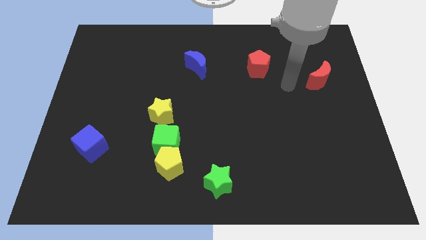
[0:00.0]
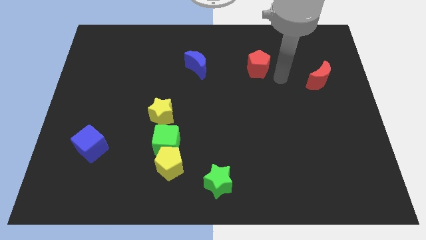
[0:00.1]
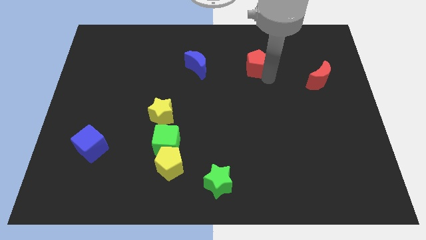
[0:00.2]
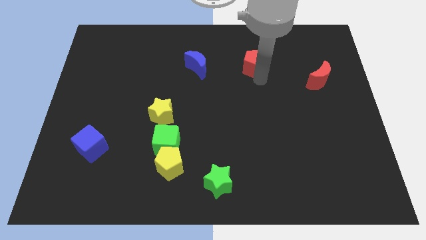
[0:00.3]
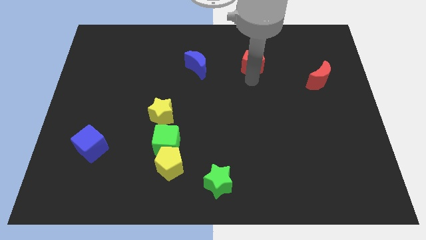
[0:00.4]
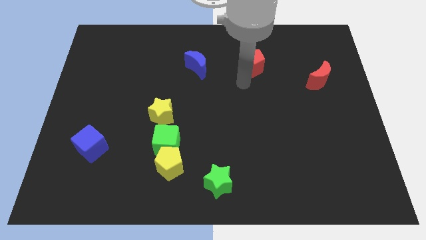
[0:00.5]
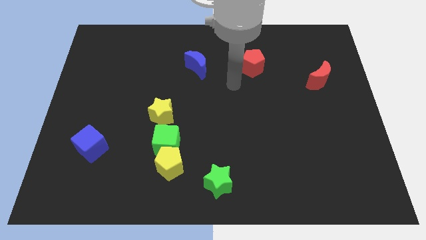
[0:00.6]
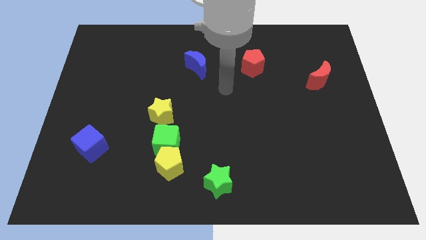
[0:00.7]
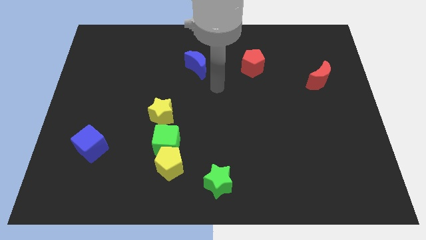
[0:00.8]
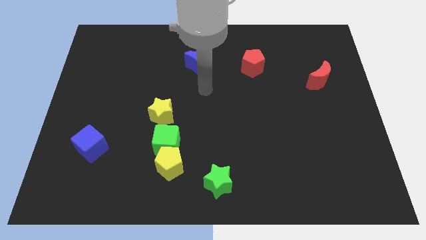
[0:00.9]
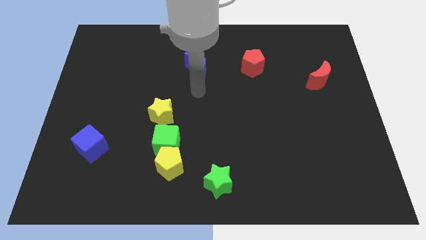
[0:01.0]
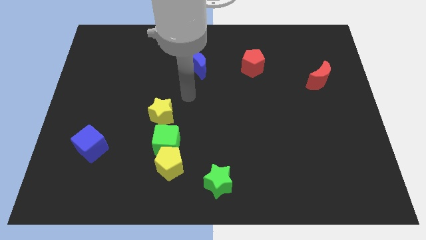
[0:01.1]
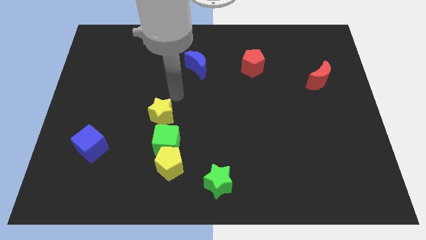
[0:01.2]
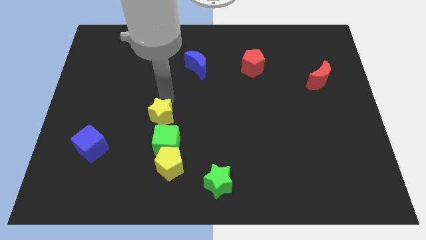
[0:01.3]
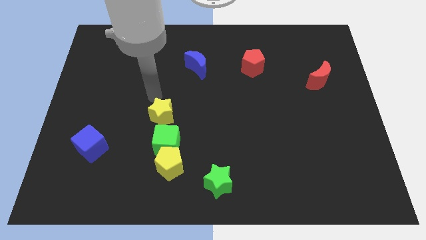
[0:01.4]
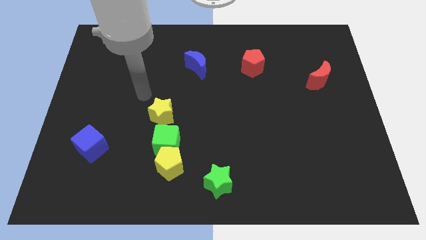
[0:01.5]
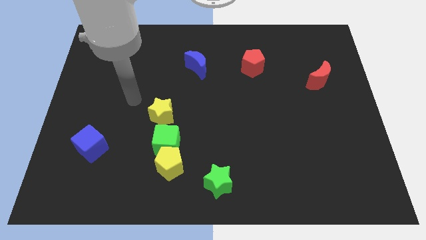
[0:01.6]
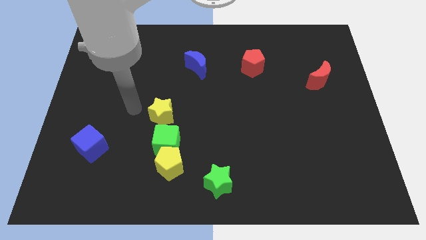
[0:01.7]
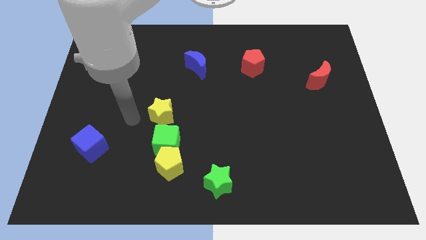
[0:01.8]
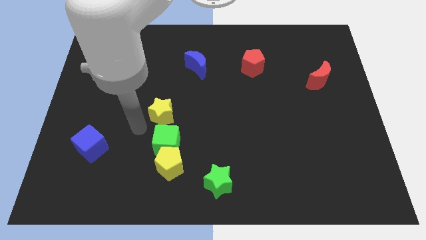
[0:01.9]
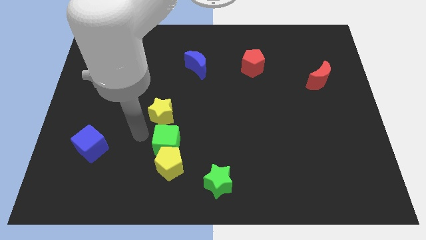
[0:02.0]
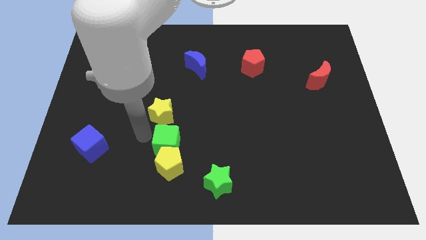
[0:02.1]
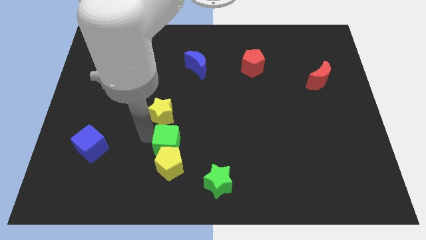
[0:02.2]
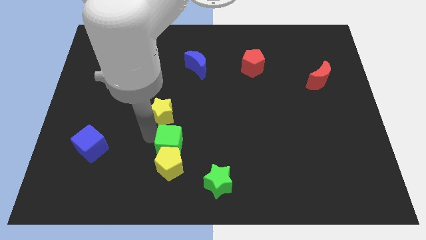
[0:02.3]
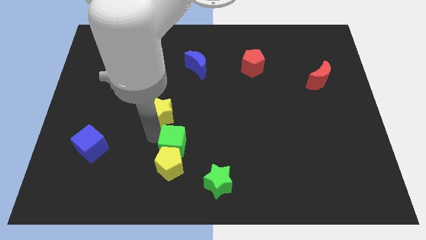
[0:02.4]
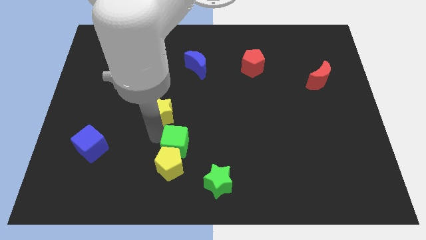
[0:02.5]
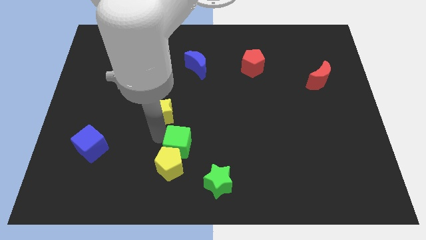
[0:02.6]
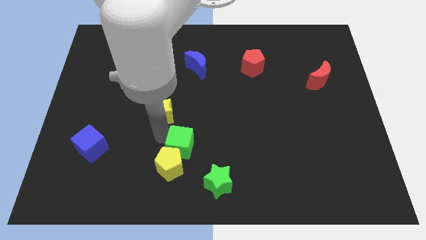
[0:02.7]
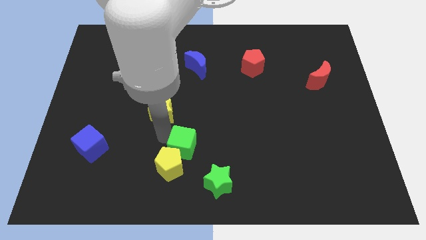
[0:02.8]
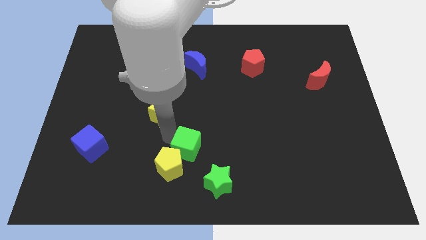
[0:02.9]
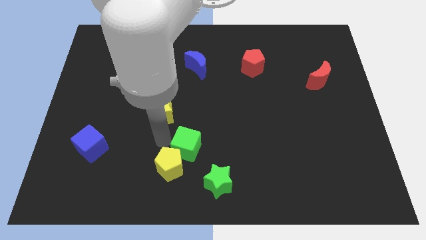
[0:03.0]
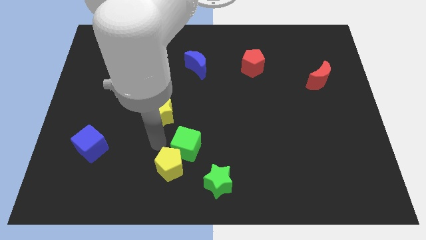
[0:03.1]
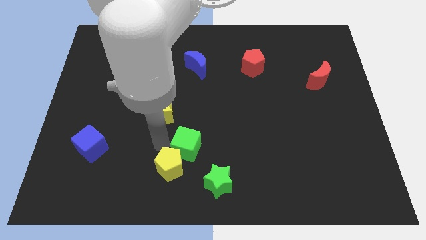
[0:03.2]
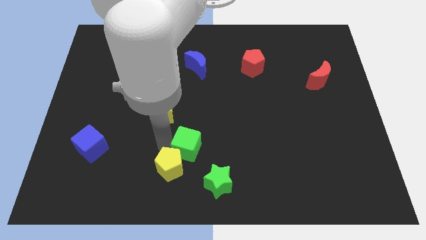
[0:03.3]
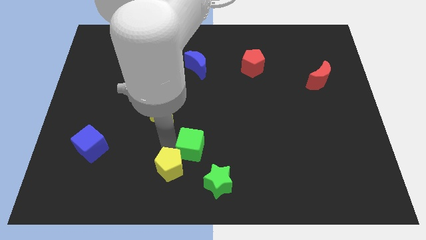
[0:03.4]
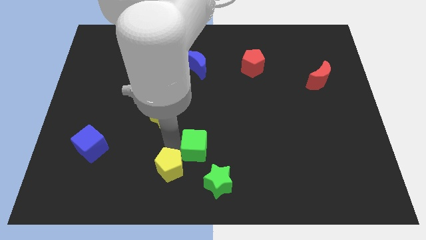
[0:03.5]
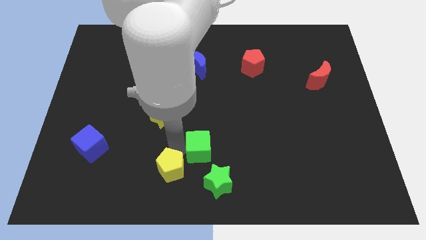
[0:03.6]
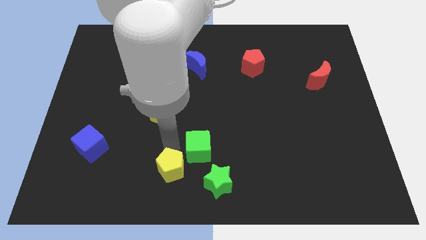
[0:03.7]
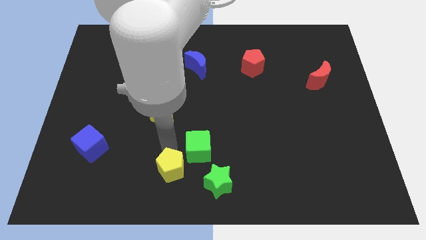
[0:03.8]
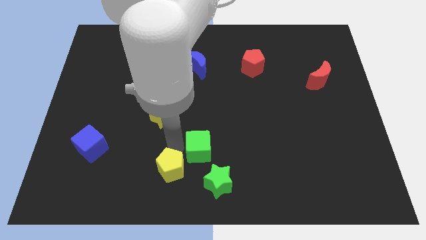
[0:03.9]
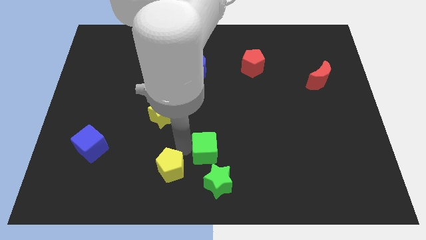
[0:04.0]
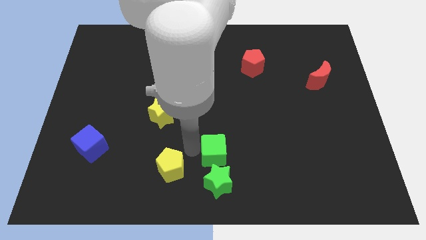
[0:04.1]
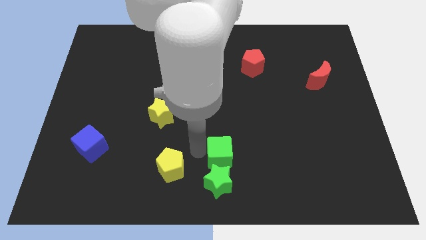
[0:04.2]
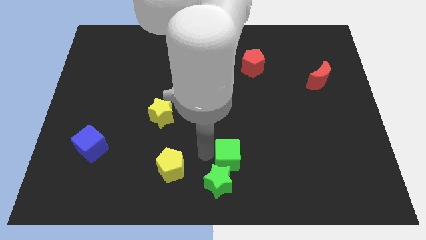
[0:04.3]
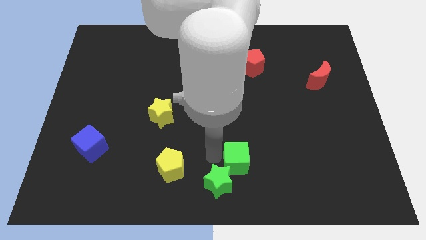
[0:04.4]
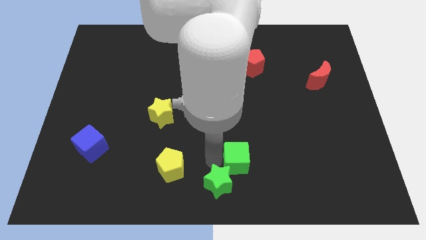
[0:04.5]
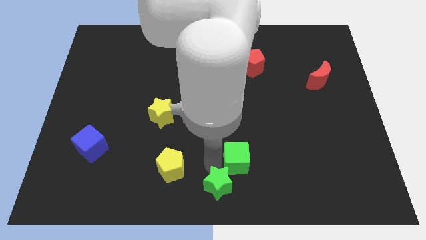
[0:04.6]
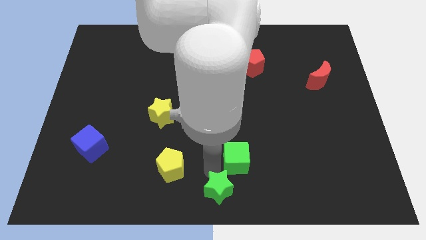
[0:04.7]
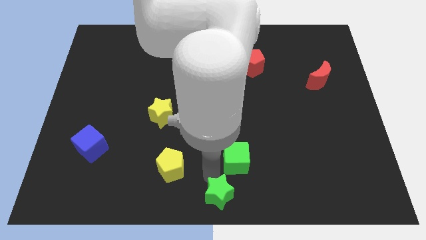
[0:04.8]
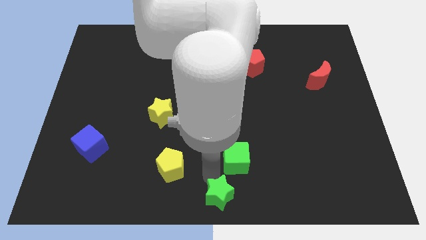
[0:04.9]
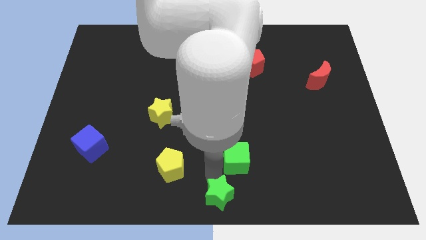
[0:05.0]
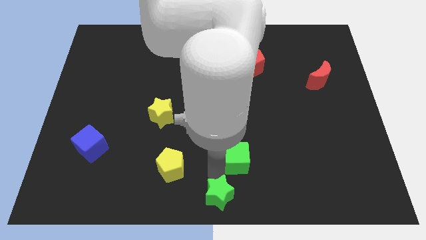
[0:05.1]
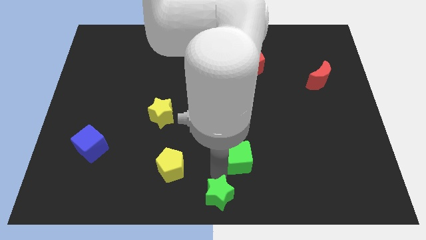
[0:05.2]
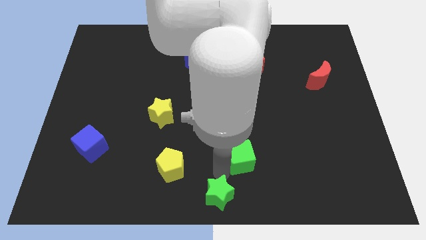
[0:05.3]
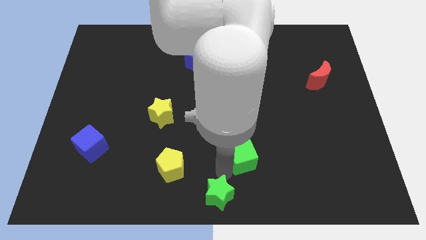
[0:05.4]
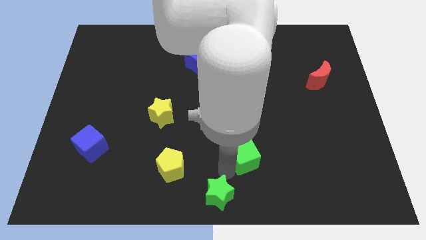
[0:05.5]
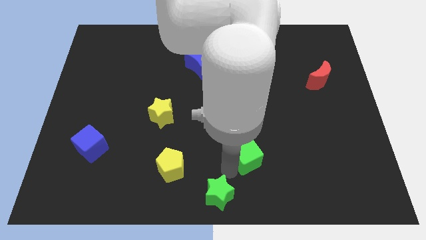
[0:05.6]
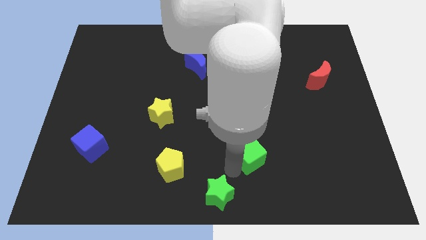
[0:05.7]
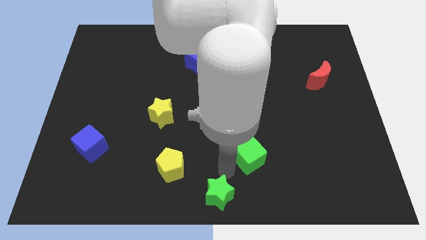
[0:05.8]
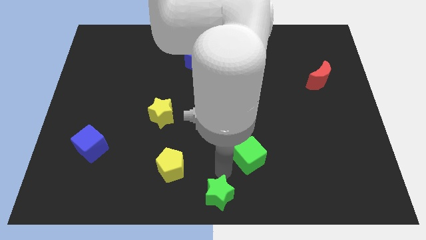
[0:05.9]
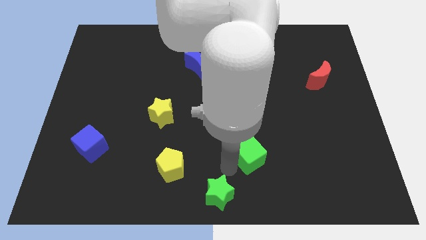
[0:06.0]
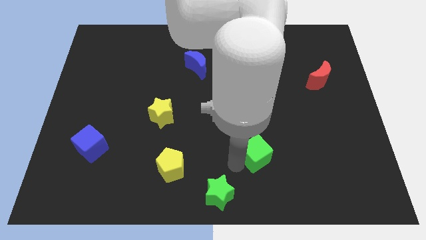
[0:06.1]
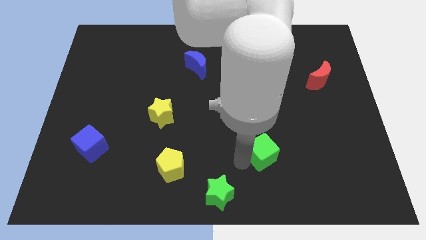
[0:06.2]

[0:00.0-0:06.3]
push the green cube right

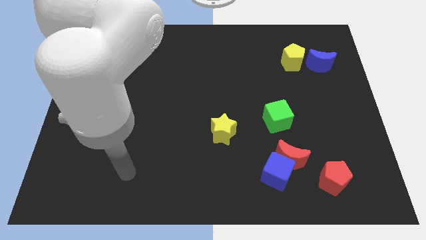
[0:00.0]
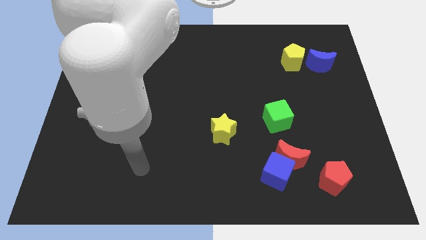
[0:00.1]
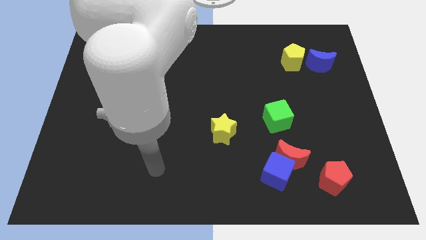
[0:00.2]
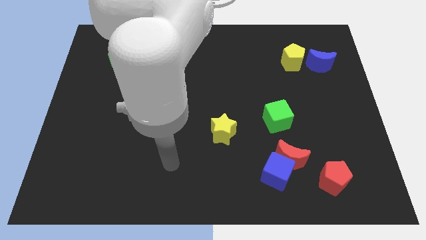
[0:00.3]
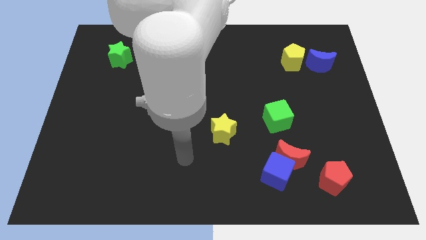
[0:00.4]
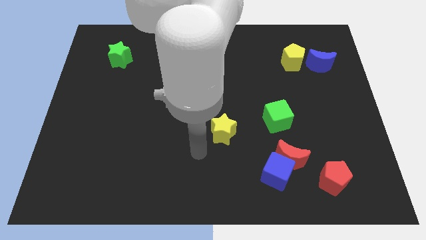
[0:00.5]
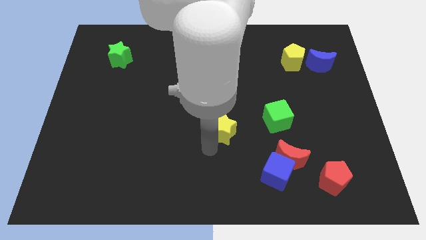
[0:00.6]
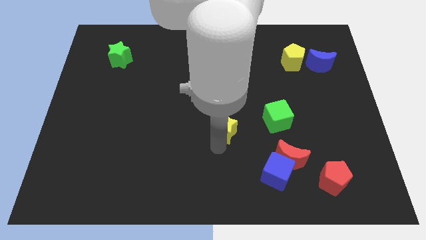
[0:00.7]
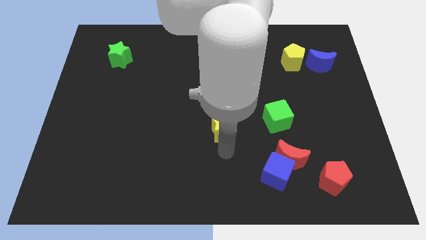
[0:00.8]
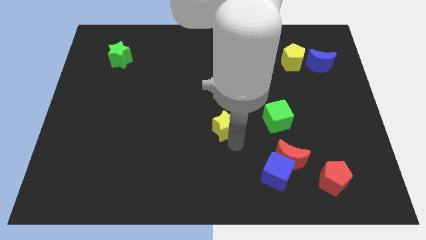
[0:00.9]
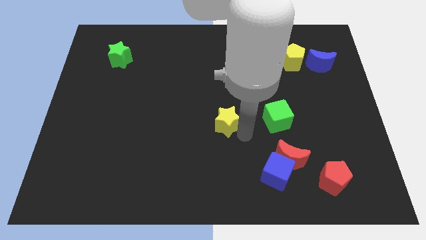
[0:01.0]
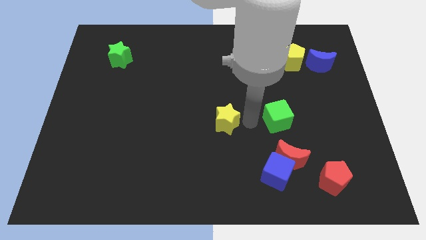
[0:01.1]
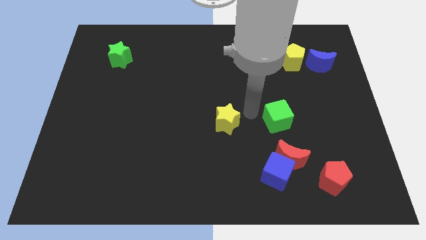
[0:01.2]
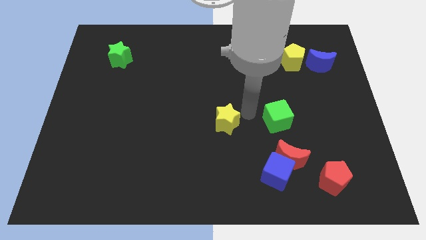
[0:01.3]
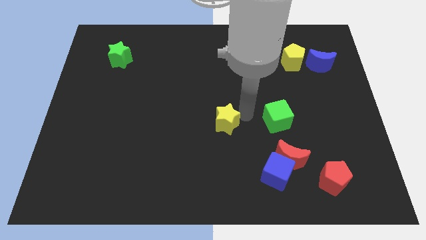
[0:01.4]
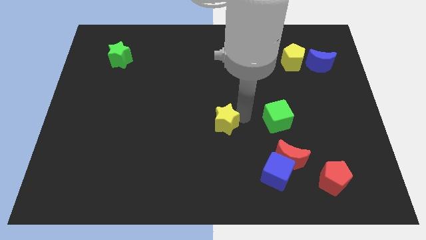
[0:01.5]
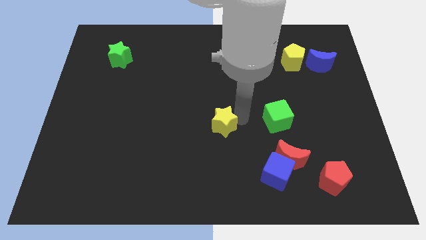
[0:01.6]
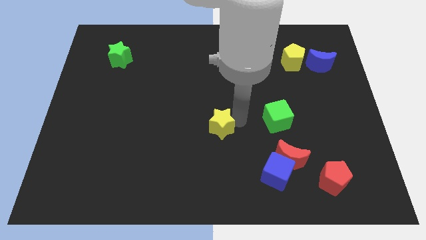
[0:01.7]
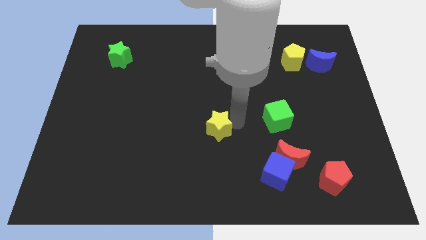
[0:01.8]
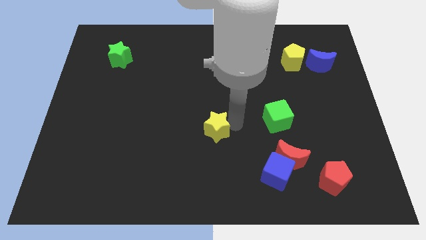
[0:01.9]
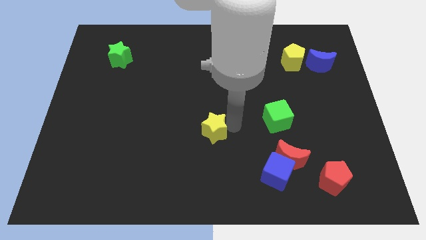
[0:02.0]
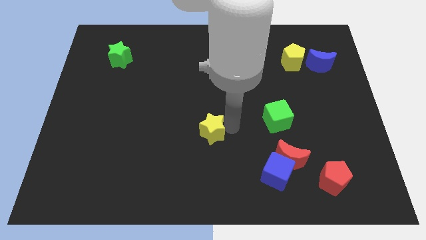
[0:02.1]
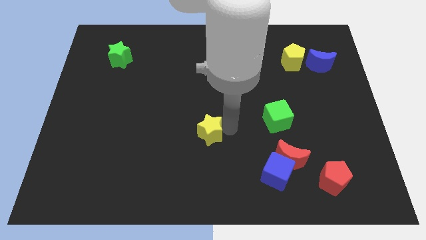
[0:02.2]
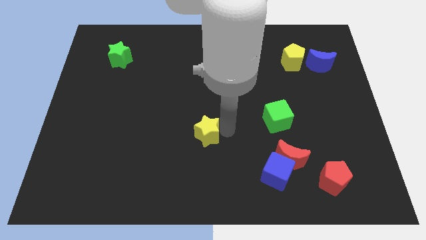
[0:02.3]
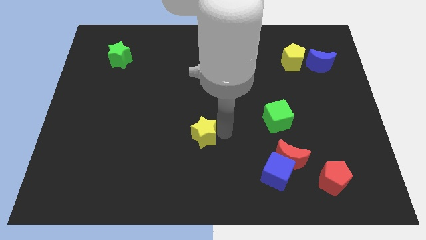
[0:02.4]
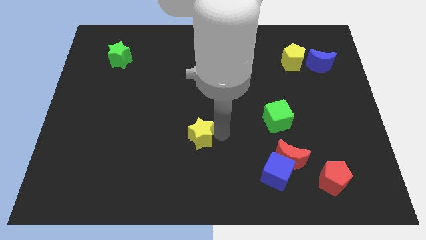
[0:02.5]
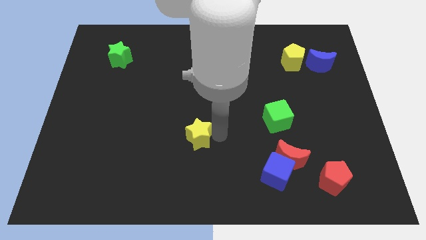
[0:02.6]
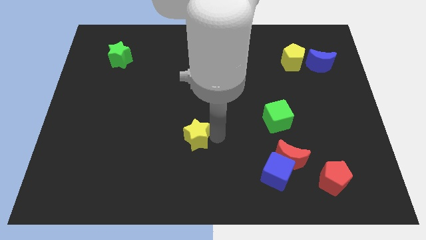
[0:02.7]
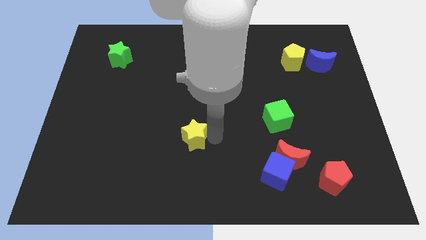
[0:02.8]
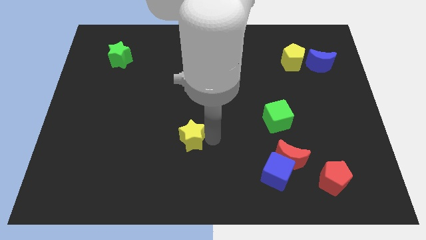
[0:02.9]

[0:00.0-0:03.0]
slightly move the yellow star to the left
